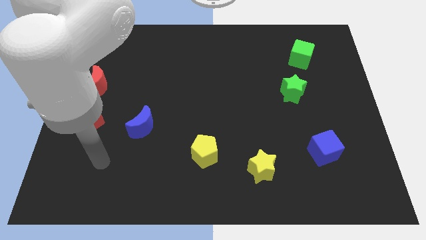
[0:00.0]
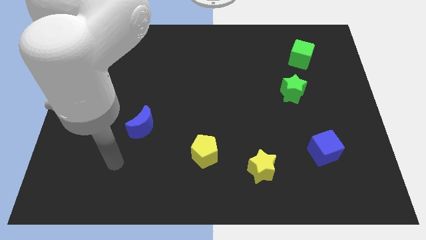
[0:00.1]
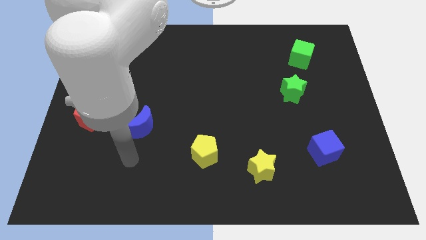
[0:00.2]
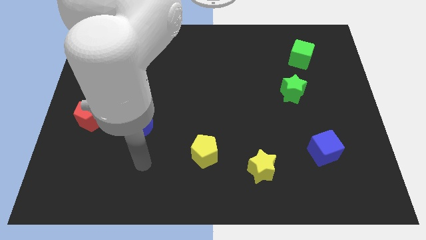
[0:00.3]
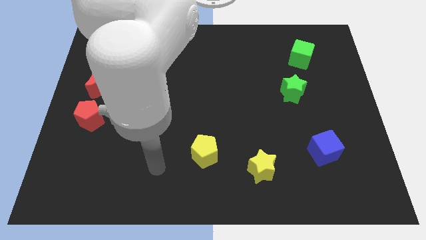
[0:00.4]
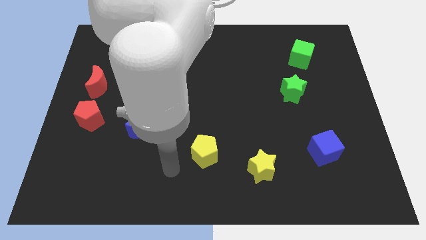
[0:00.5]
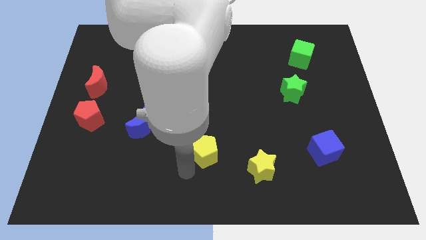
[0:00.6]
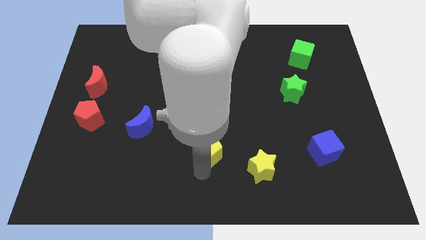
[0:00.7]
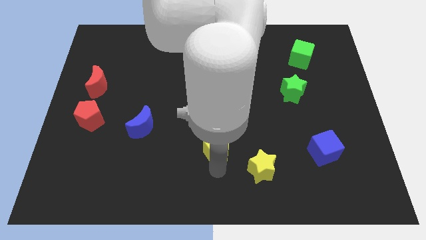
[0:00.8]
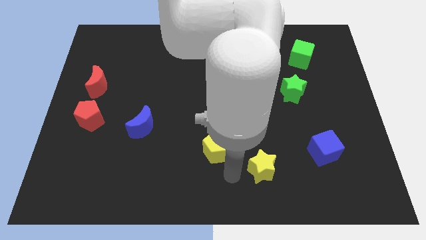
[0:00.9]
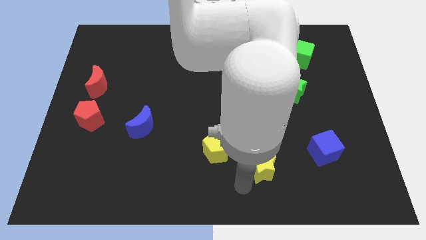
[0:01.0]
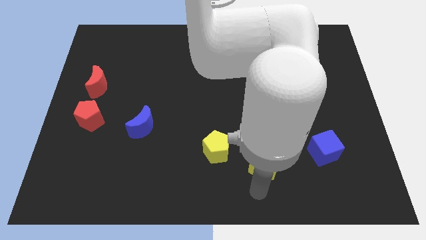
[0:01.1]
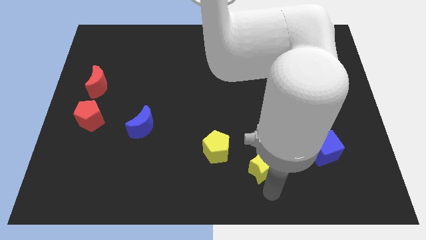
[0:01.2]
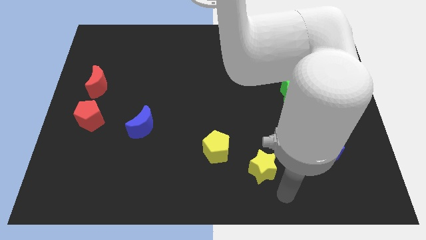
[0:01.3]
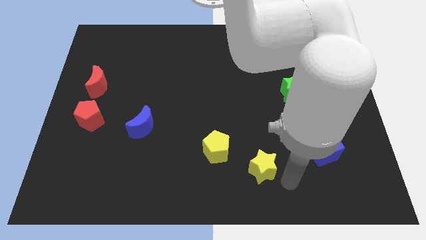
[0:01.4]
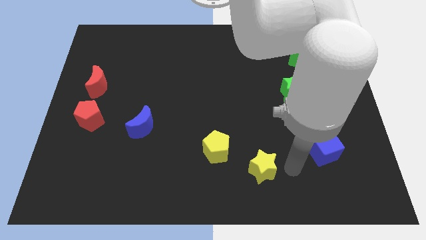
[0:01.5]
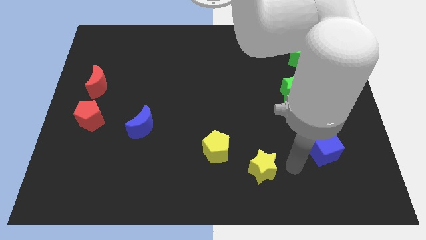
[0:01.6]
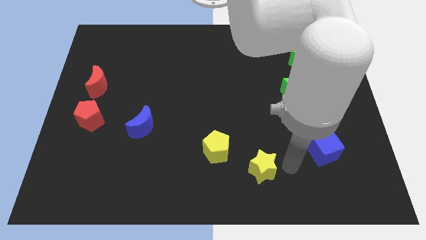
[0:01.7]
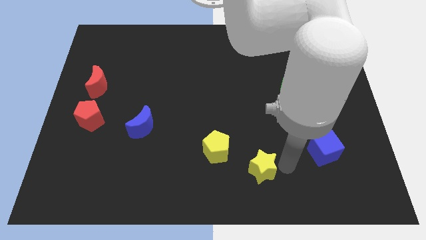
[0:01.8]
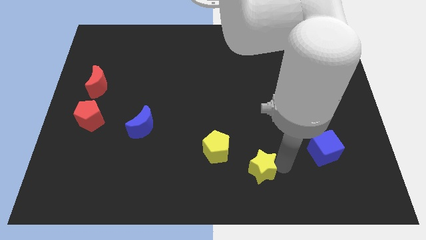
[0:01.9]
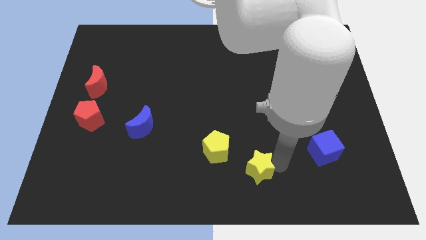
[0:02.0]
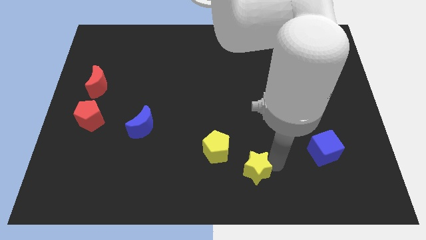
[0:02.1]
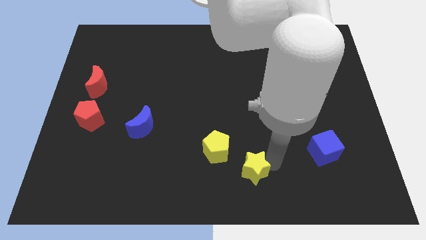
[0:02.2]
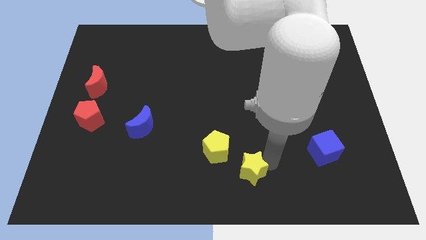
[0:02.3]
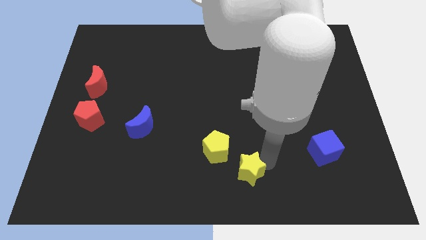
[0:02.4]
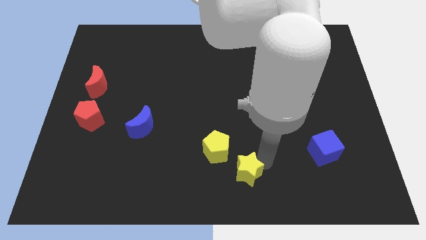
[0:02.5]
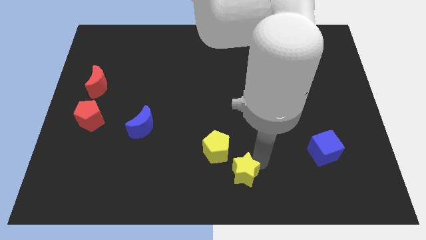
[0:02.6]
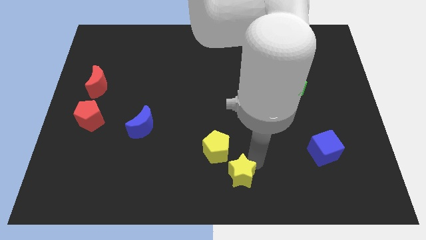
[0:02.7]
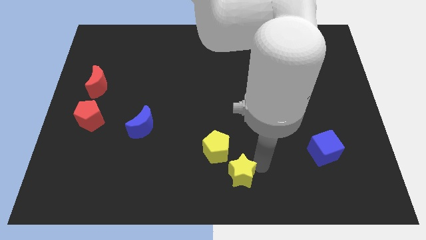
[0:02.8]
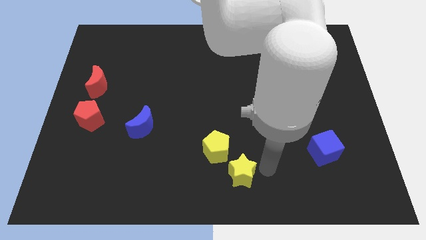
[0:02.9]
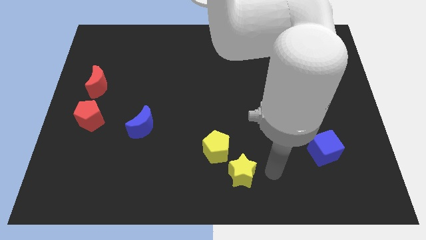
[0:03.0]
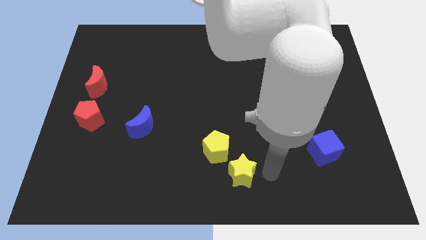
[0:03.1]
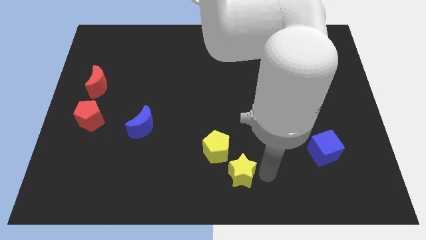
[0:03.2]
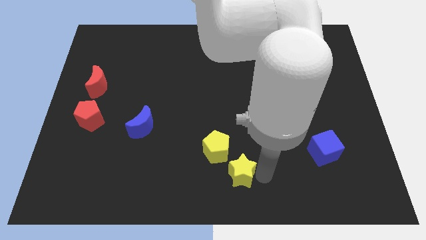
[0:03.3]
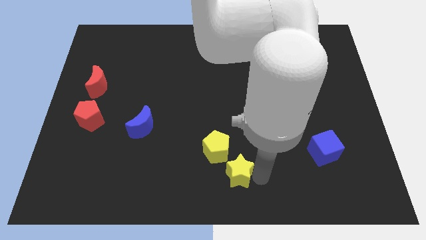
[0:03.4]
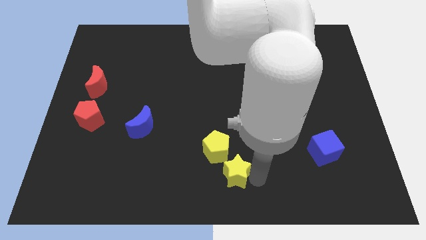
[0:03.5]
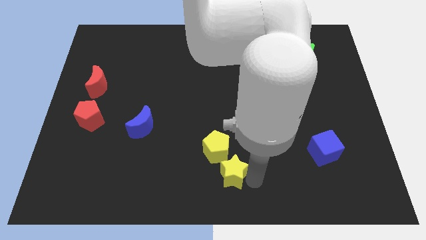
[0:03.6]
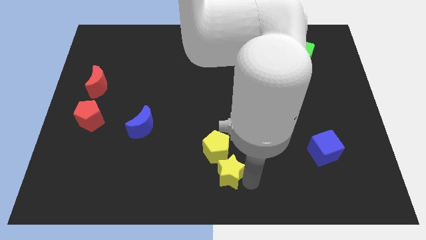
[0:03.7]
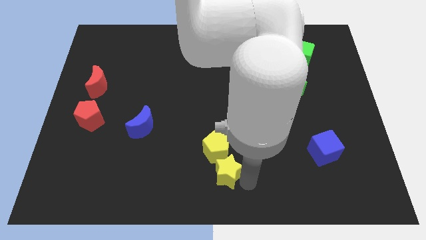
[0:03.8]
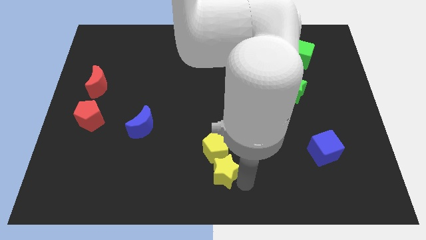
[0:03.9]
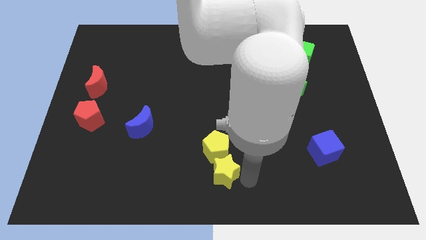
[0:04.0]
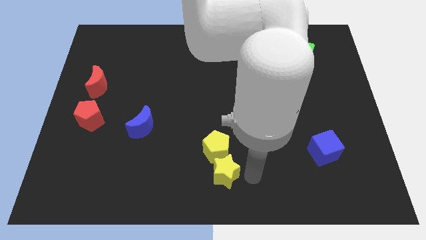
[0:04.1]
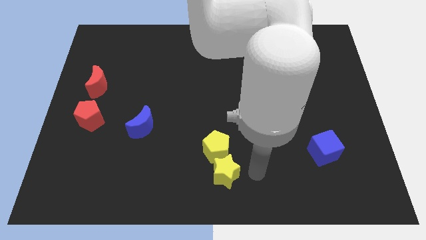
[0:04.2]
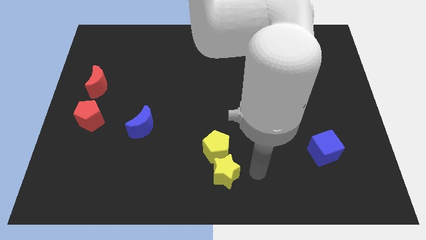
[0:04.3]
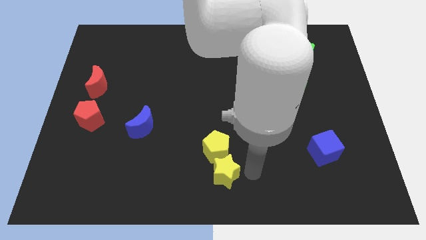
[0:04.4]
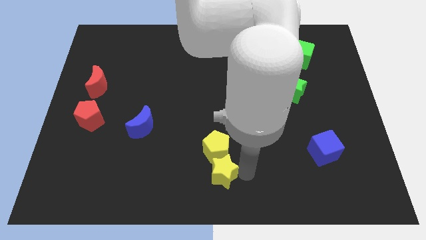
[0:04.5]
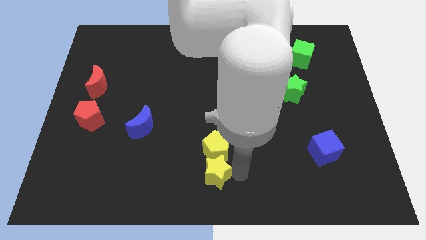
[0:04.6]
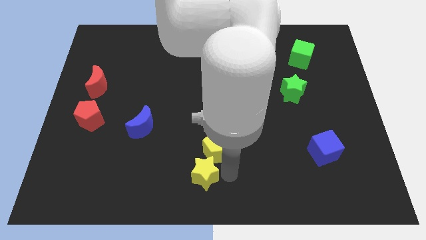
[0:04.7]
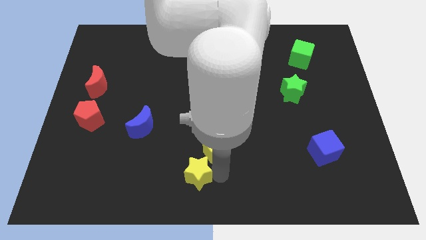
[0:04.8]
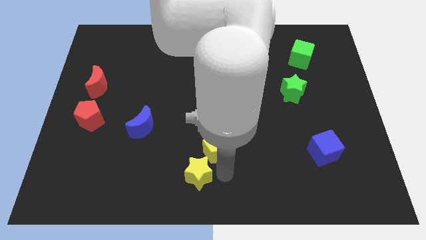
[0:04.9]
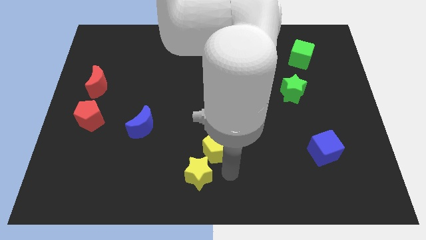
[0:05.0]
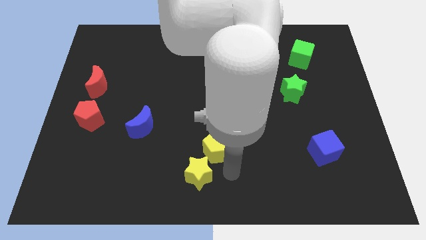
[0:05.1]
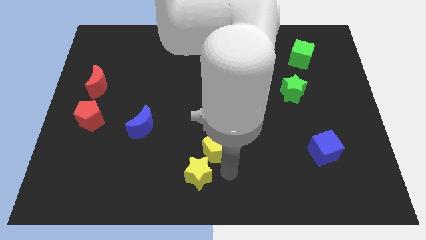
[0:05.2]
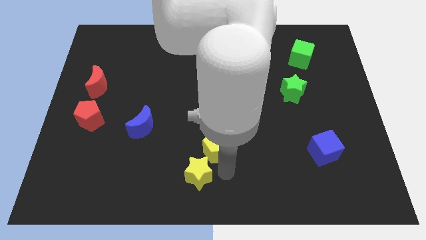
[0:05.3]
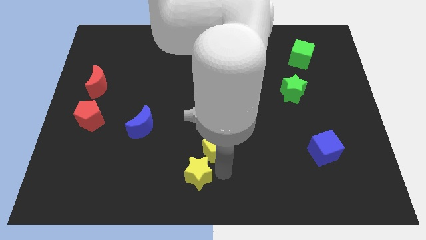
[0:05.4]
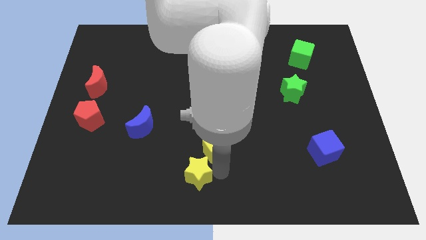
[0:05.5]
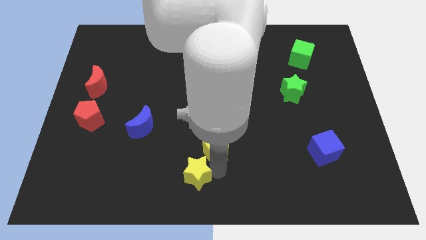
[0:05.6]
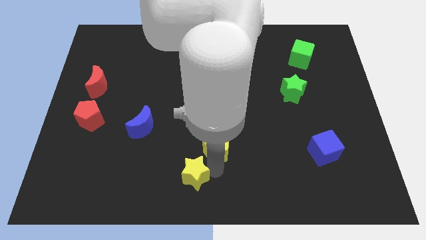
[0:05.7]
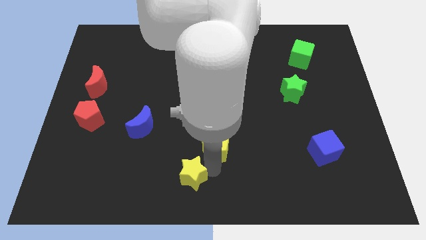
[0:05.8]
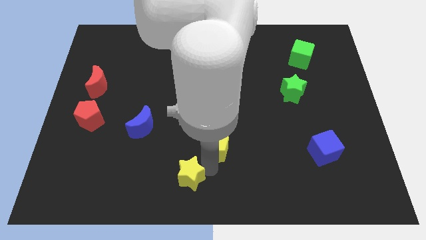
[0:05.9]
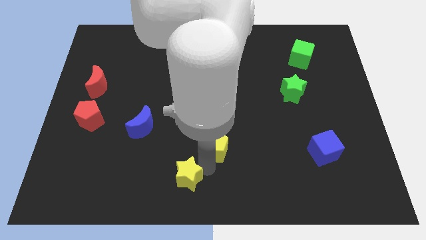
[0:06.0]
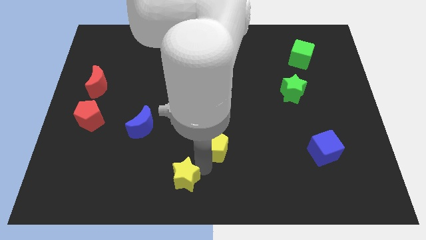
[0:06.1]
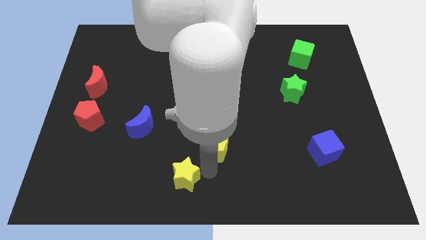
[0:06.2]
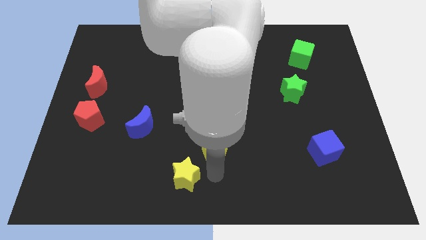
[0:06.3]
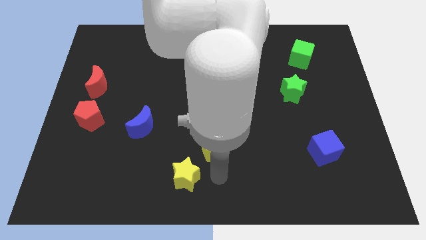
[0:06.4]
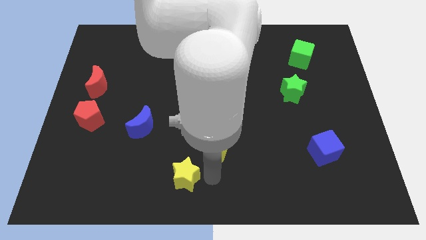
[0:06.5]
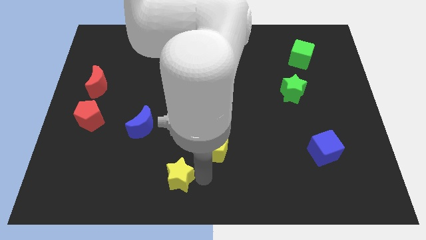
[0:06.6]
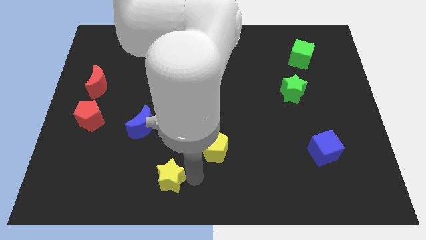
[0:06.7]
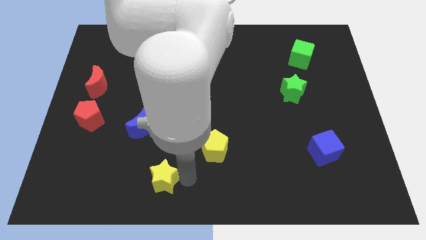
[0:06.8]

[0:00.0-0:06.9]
slide the yellow star left

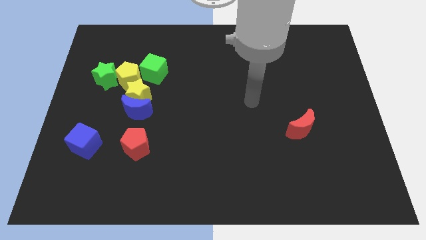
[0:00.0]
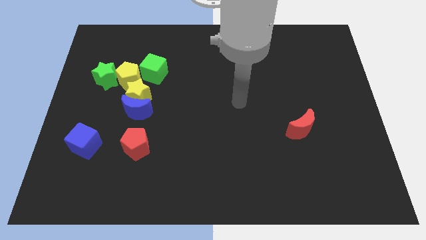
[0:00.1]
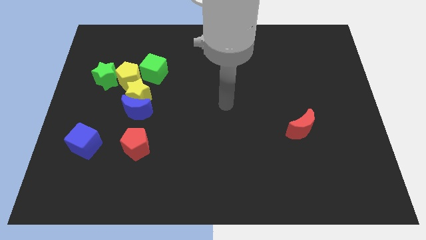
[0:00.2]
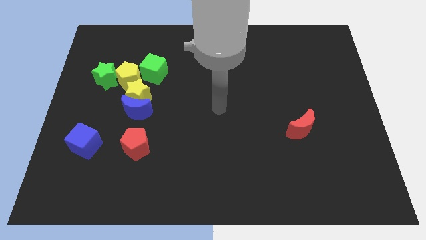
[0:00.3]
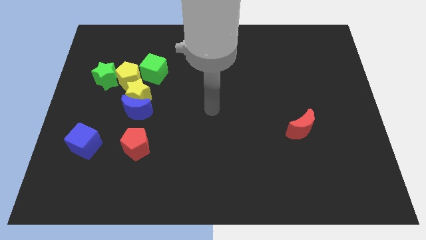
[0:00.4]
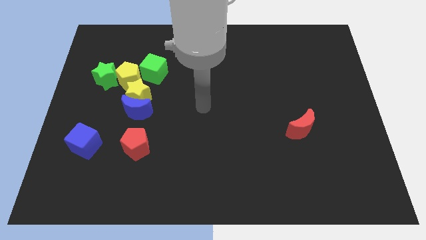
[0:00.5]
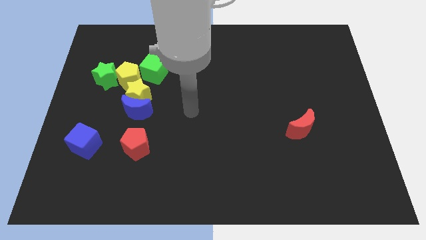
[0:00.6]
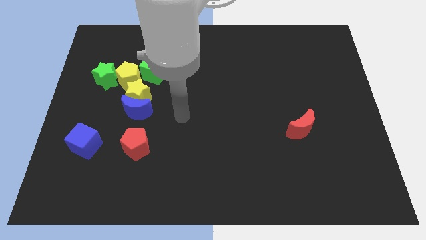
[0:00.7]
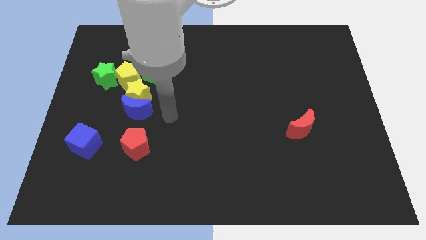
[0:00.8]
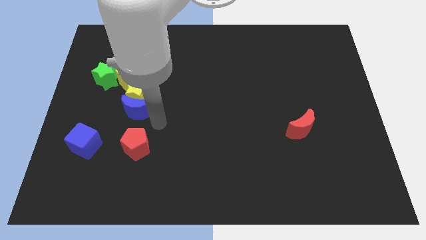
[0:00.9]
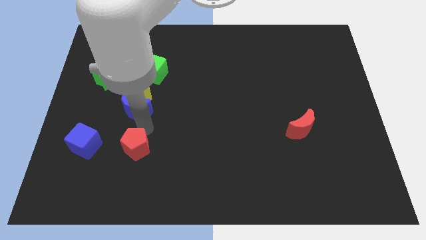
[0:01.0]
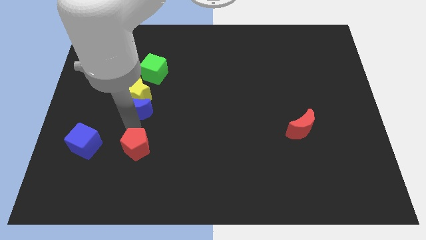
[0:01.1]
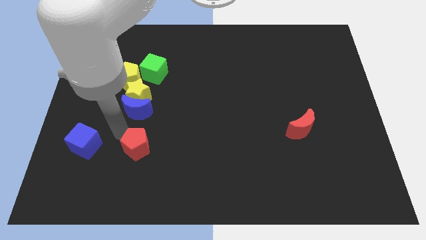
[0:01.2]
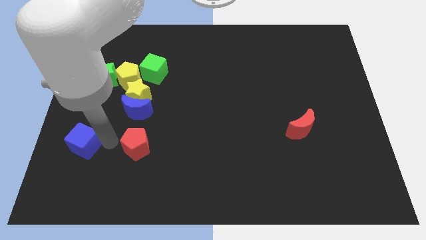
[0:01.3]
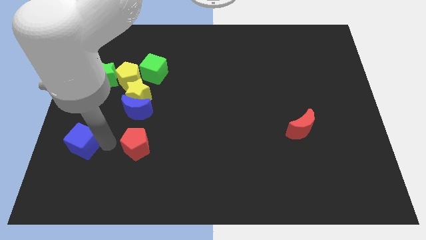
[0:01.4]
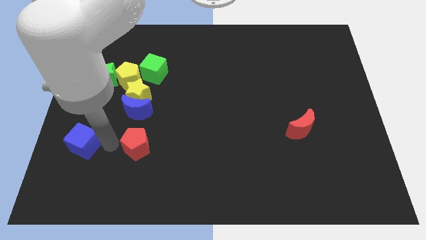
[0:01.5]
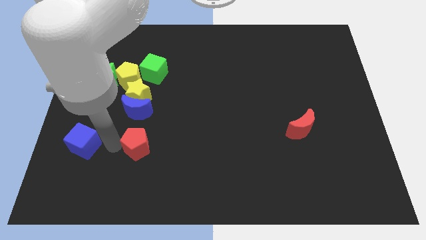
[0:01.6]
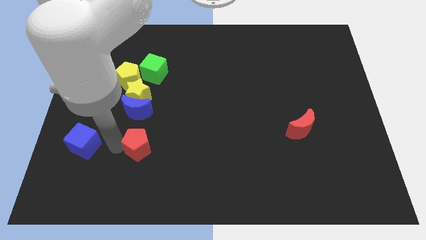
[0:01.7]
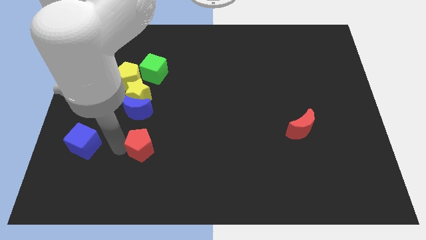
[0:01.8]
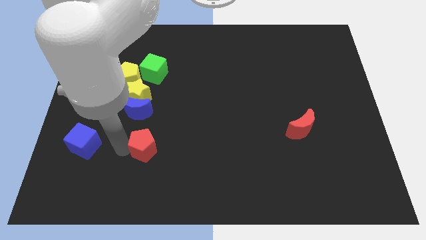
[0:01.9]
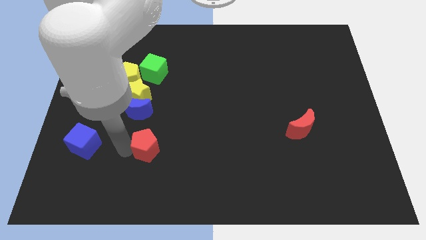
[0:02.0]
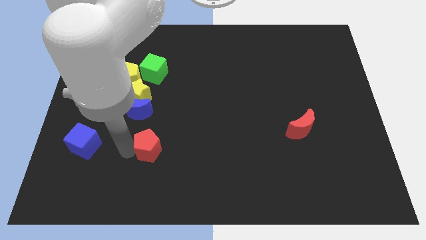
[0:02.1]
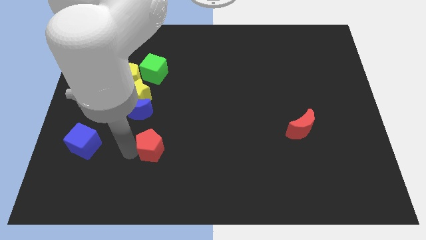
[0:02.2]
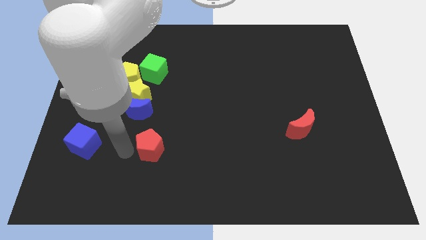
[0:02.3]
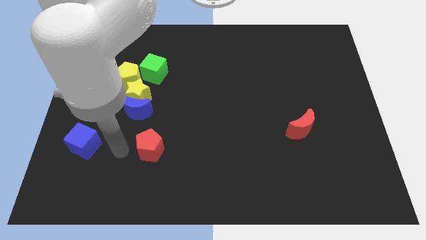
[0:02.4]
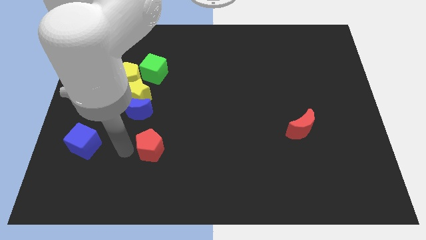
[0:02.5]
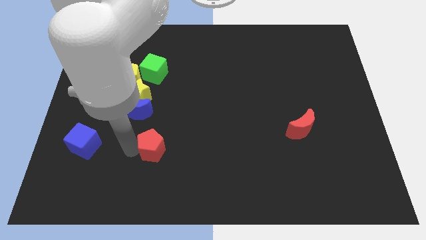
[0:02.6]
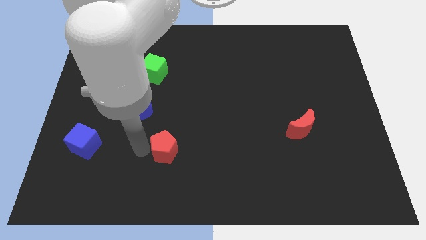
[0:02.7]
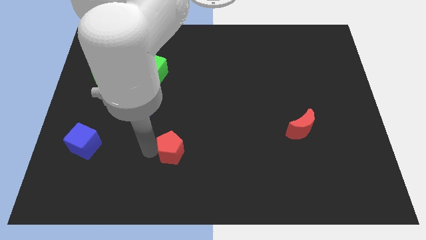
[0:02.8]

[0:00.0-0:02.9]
move the red pentagon somewhat right
